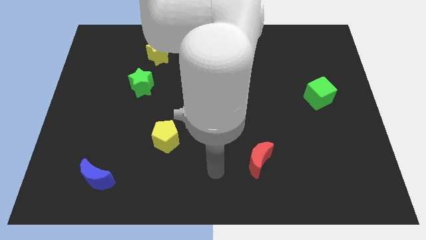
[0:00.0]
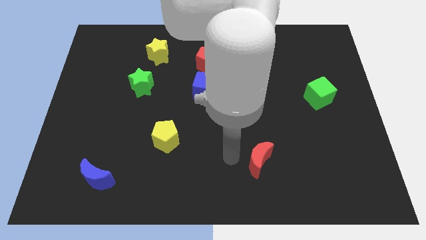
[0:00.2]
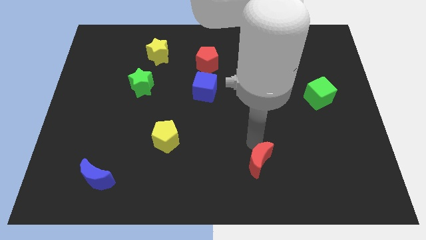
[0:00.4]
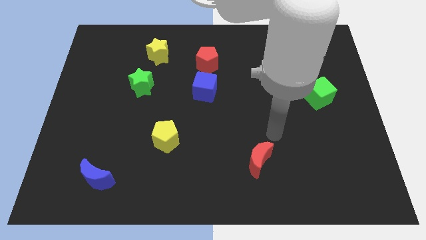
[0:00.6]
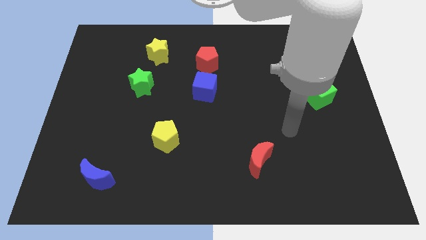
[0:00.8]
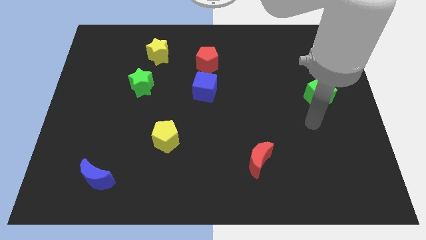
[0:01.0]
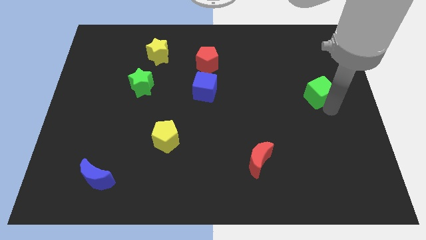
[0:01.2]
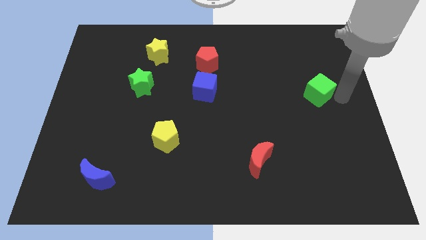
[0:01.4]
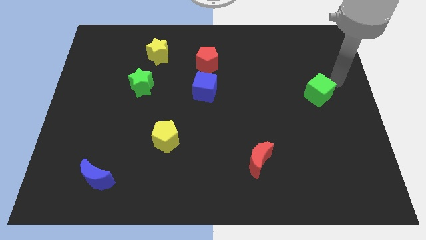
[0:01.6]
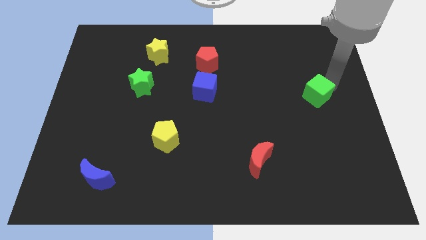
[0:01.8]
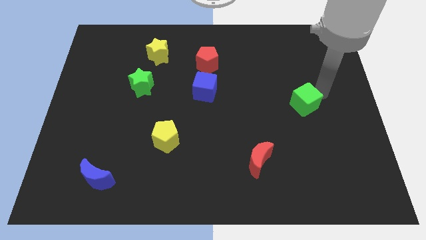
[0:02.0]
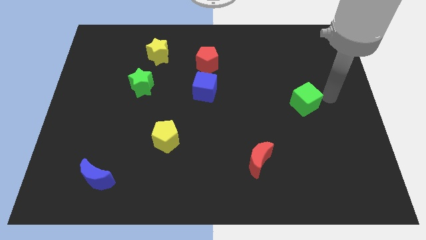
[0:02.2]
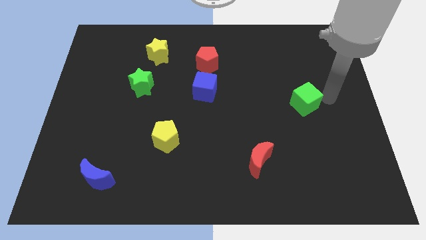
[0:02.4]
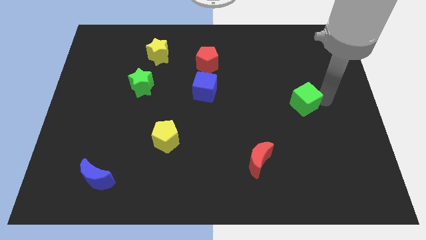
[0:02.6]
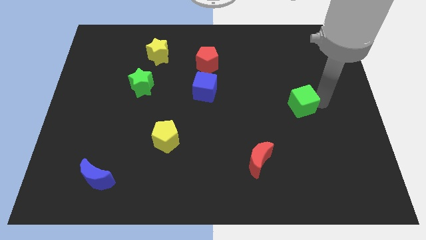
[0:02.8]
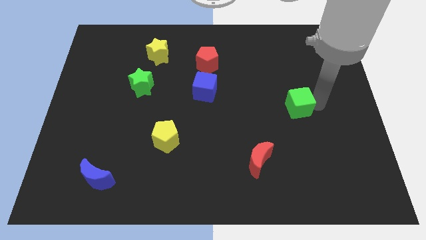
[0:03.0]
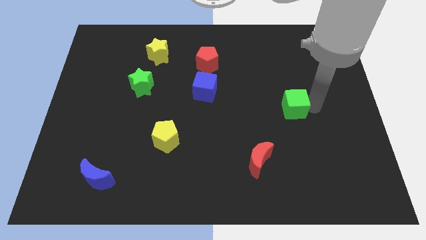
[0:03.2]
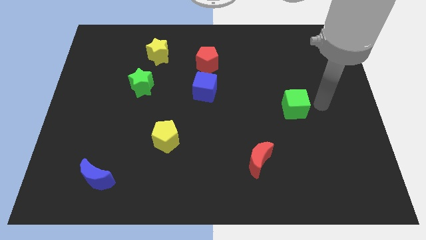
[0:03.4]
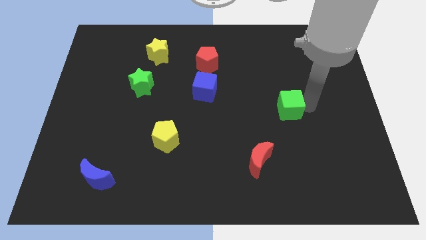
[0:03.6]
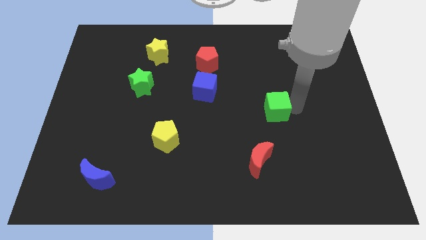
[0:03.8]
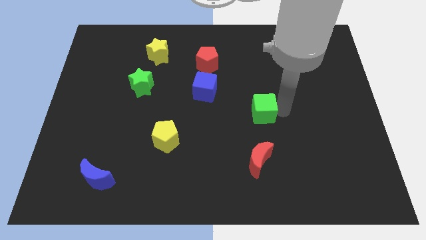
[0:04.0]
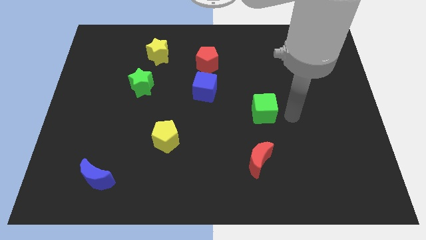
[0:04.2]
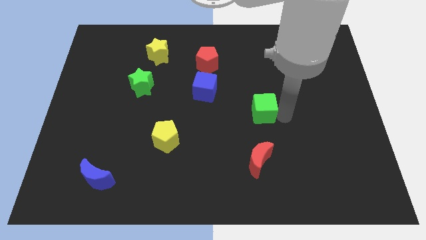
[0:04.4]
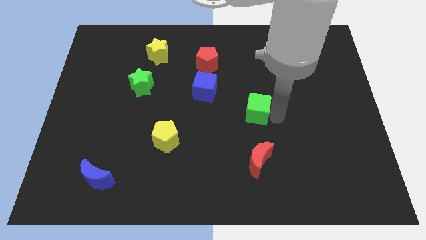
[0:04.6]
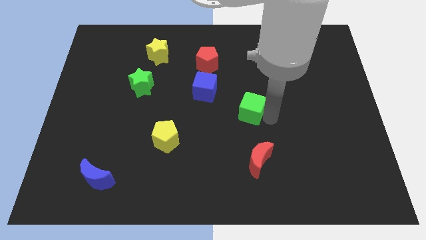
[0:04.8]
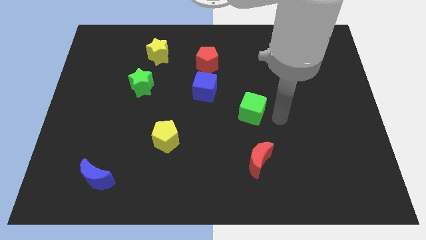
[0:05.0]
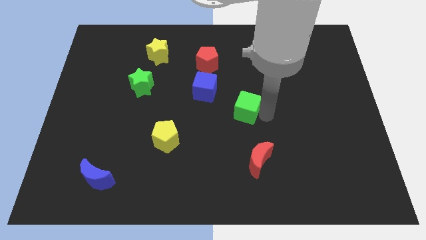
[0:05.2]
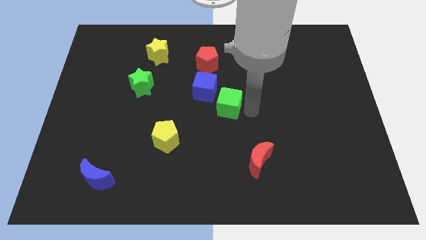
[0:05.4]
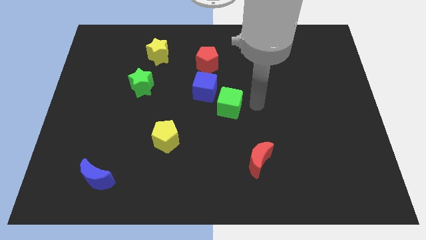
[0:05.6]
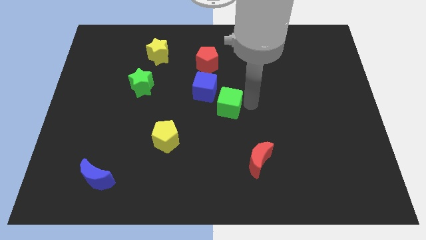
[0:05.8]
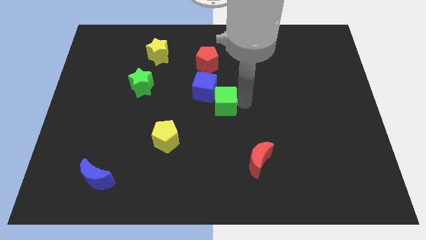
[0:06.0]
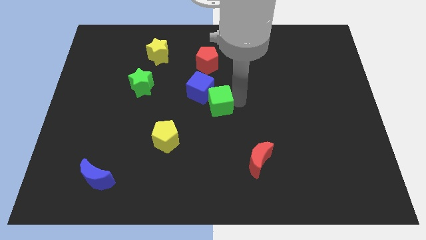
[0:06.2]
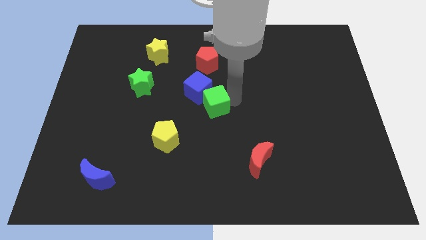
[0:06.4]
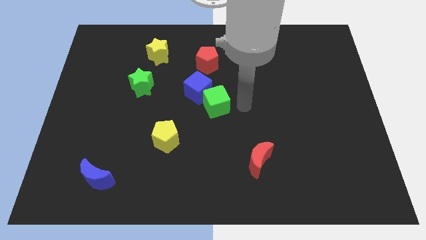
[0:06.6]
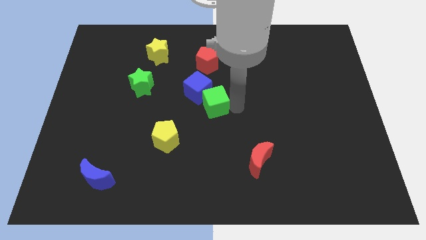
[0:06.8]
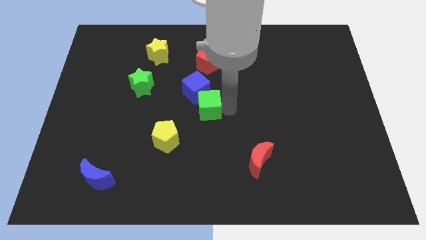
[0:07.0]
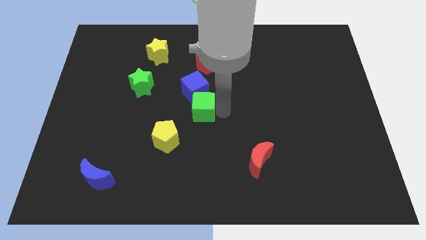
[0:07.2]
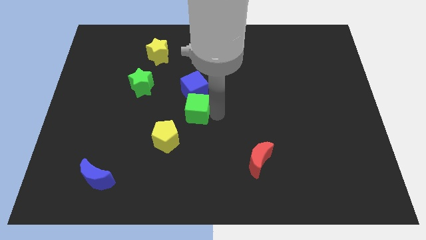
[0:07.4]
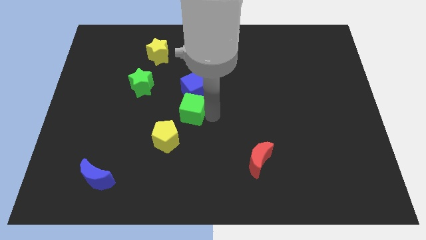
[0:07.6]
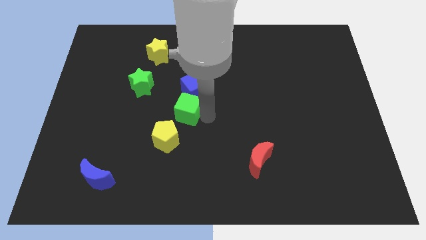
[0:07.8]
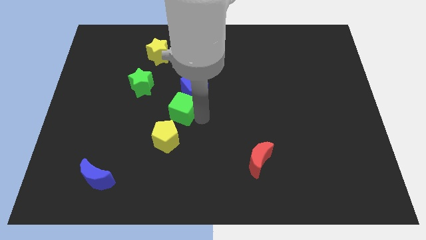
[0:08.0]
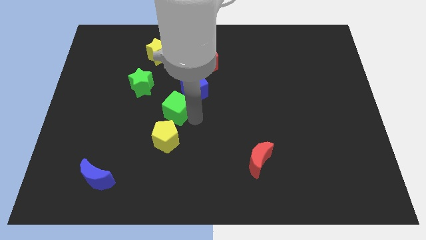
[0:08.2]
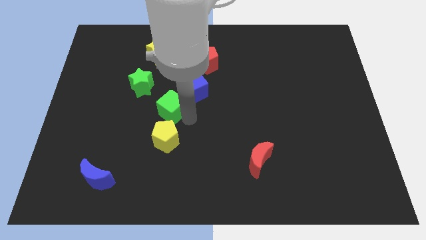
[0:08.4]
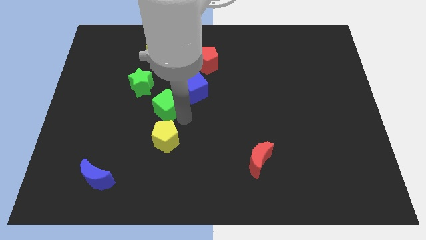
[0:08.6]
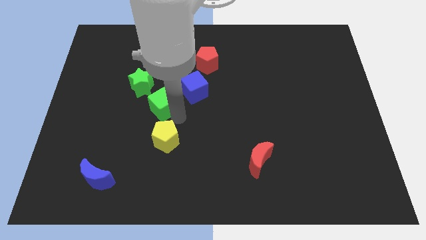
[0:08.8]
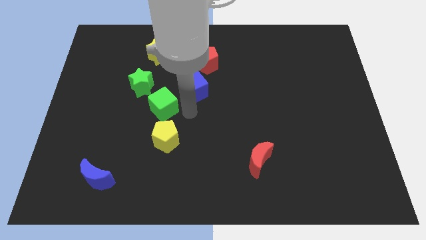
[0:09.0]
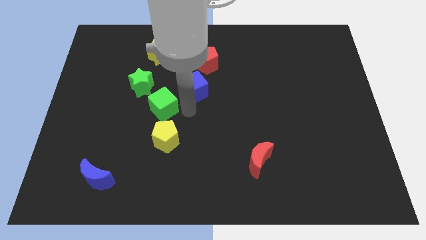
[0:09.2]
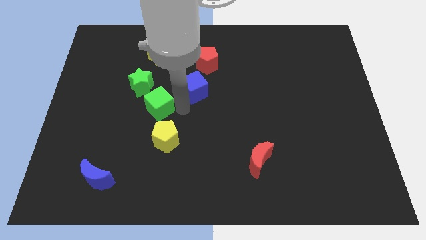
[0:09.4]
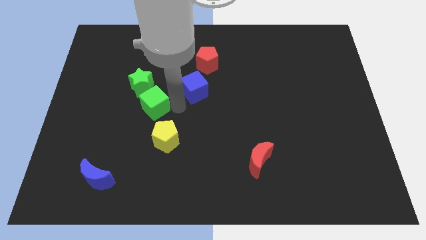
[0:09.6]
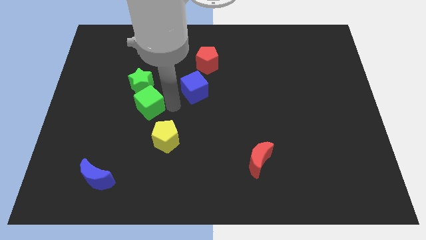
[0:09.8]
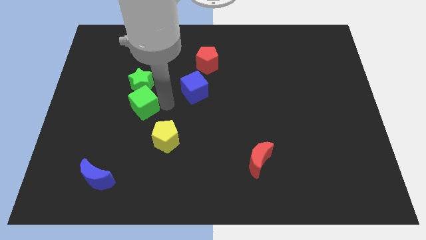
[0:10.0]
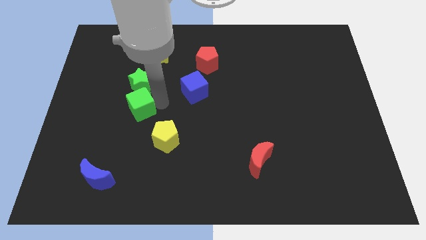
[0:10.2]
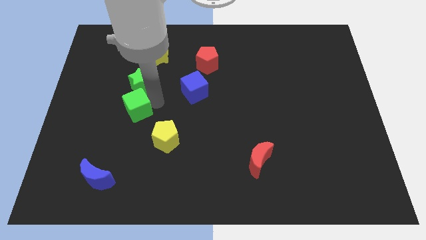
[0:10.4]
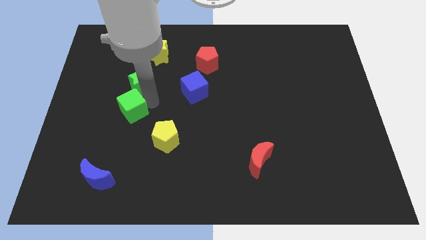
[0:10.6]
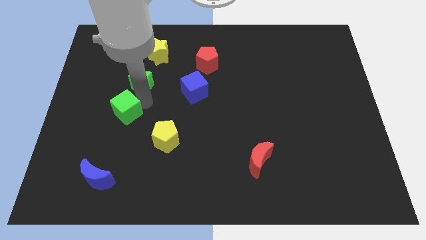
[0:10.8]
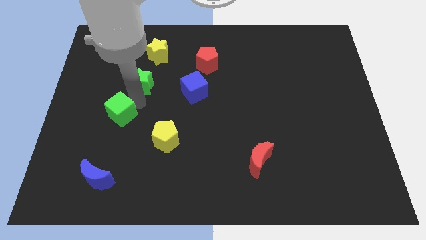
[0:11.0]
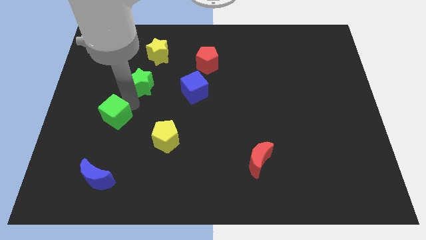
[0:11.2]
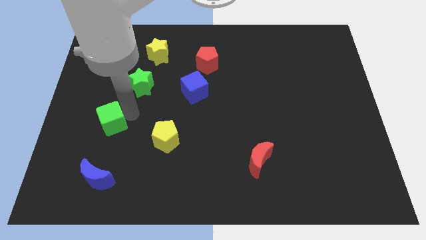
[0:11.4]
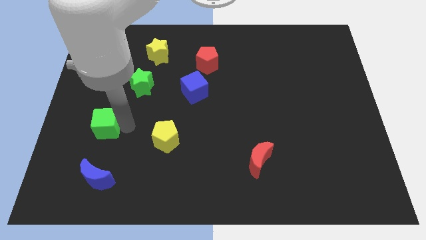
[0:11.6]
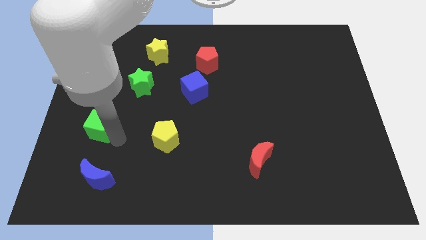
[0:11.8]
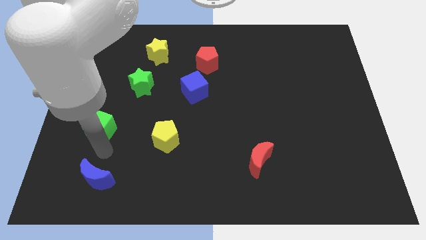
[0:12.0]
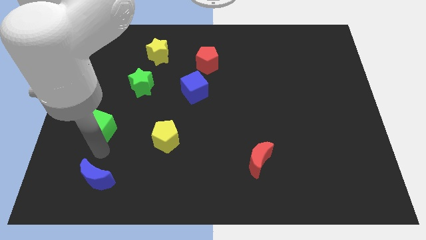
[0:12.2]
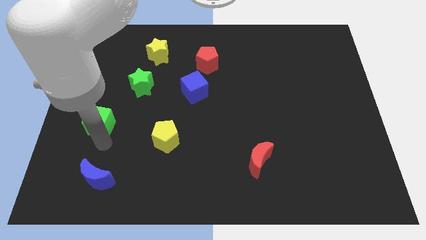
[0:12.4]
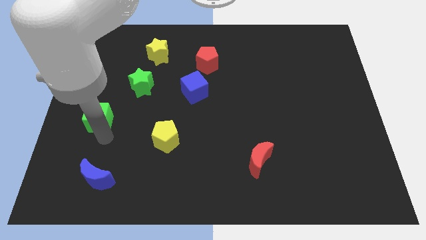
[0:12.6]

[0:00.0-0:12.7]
push the green cube to the left side

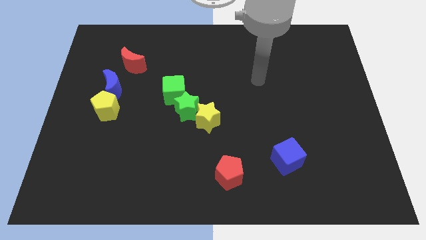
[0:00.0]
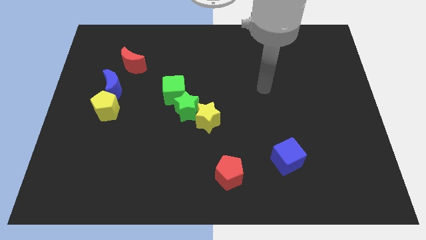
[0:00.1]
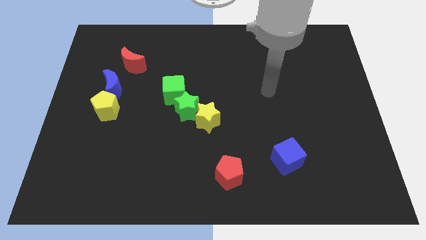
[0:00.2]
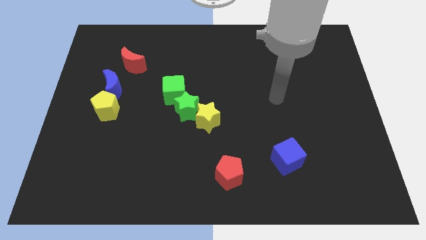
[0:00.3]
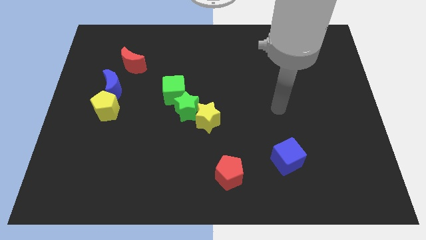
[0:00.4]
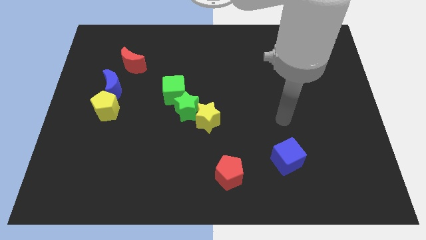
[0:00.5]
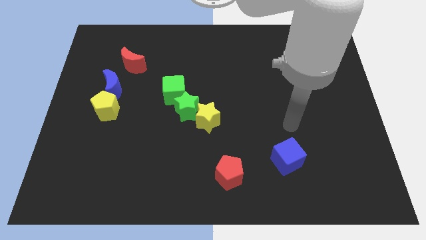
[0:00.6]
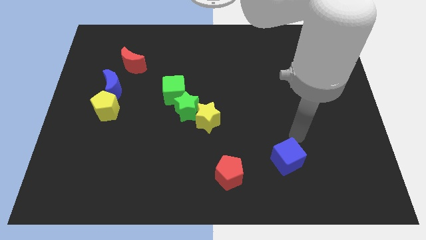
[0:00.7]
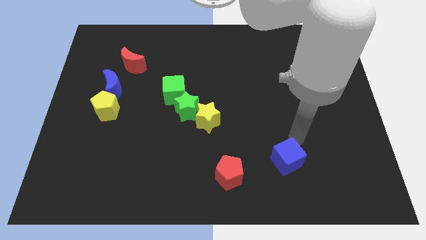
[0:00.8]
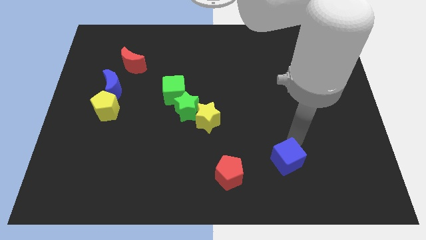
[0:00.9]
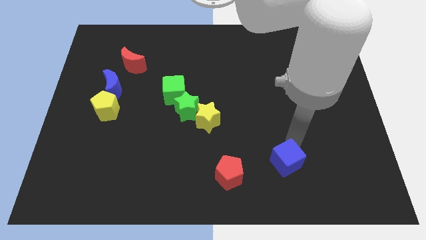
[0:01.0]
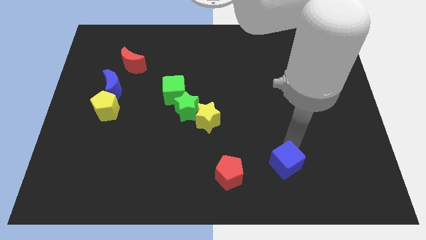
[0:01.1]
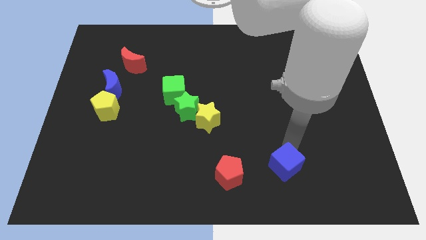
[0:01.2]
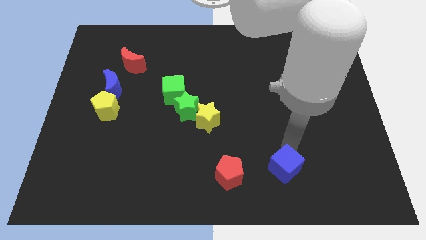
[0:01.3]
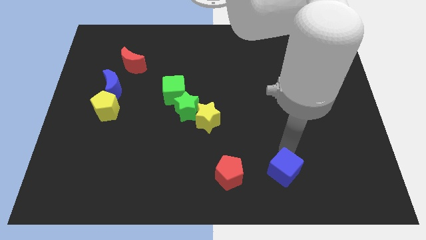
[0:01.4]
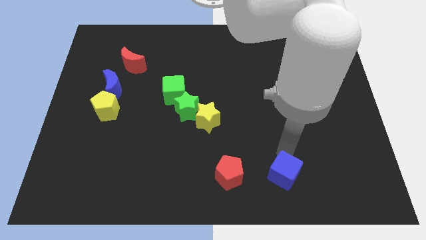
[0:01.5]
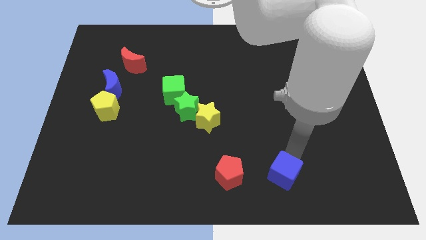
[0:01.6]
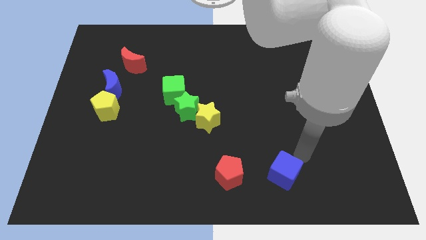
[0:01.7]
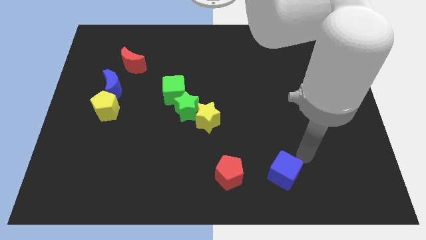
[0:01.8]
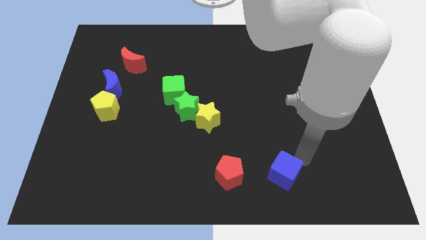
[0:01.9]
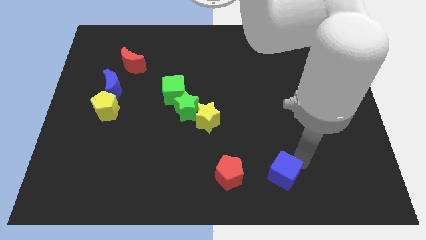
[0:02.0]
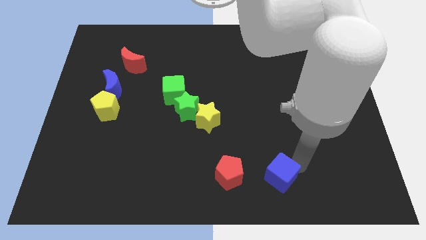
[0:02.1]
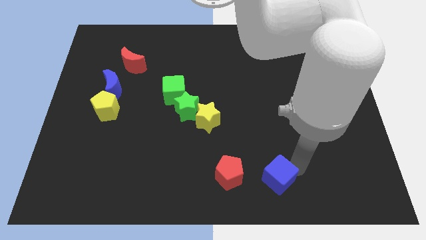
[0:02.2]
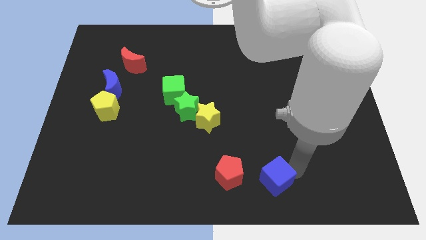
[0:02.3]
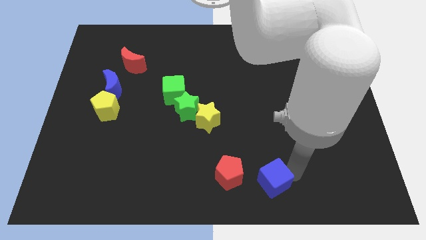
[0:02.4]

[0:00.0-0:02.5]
put the blue cube to the bottom
